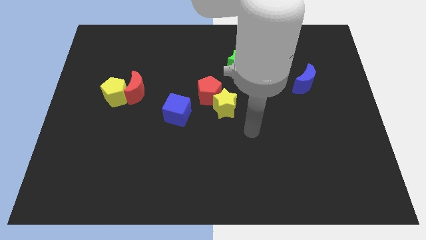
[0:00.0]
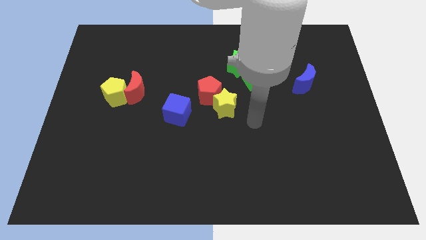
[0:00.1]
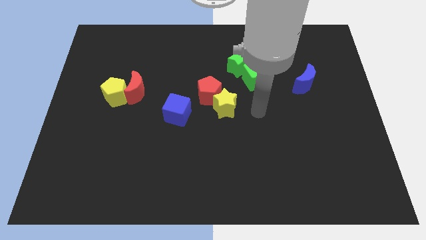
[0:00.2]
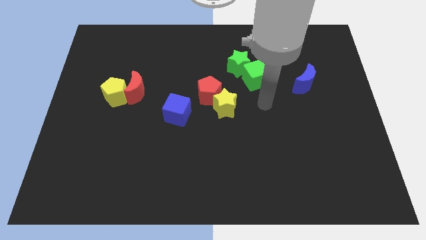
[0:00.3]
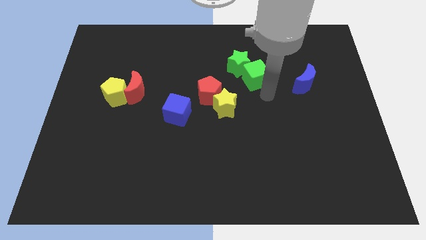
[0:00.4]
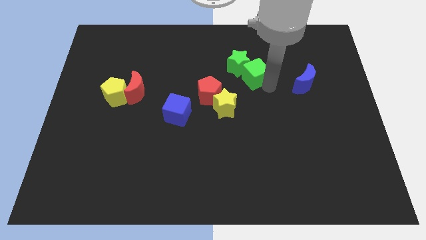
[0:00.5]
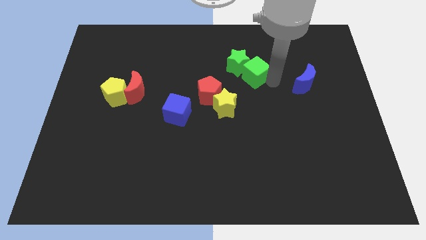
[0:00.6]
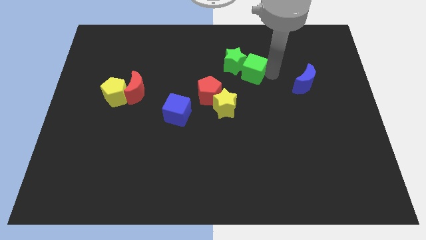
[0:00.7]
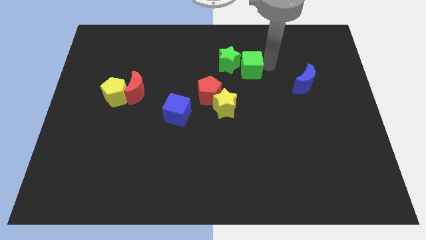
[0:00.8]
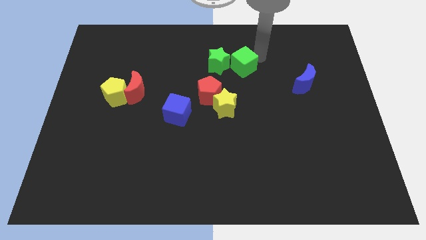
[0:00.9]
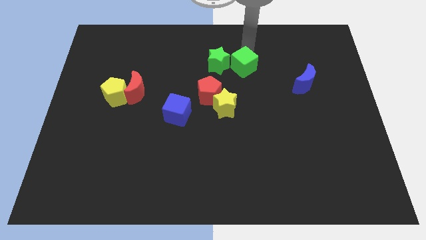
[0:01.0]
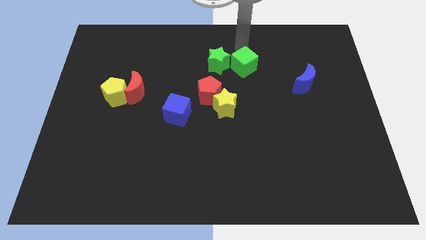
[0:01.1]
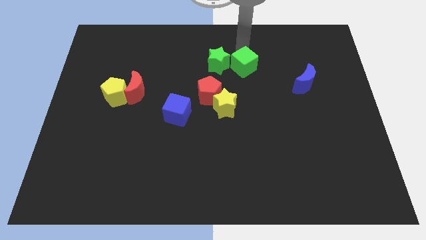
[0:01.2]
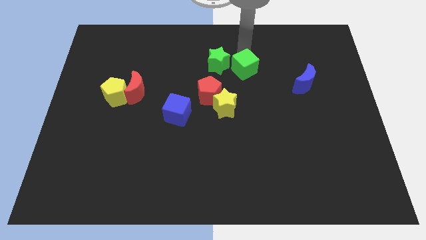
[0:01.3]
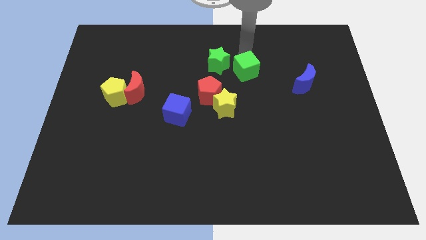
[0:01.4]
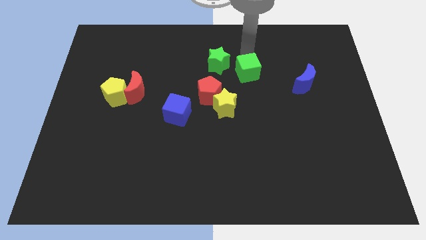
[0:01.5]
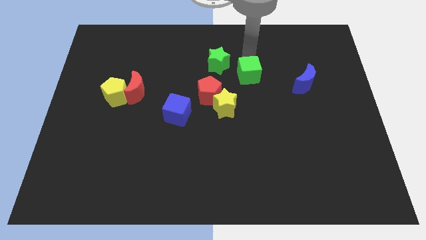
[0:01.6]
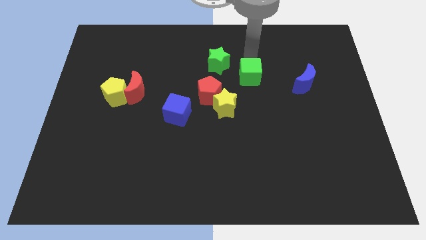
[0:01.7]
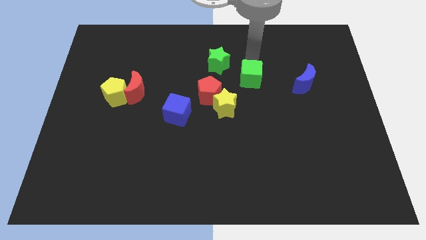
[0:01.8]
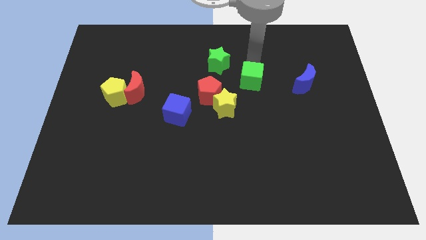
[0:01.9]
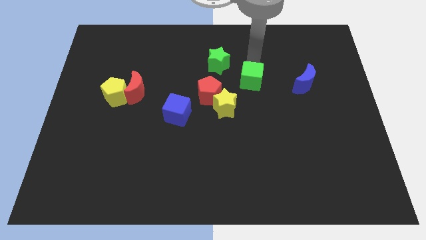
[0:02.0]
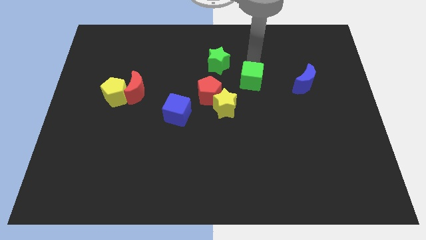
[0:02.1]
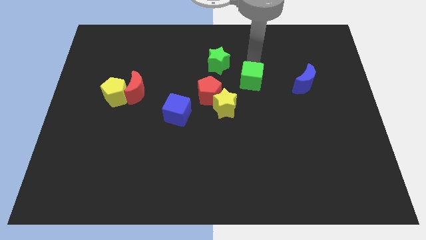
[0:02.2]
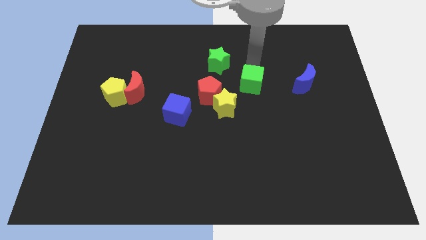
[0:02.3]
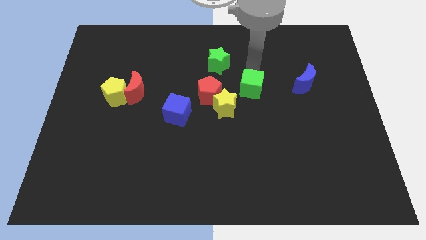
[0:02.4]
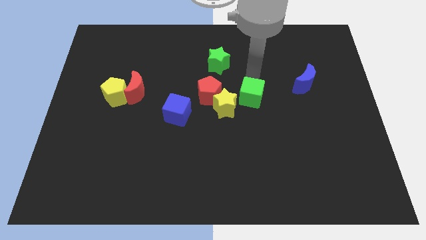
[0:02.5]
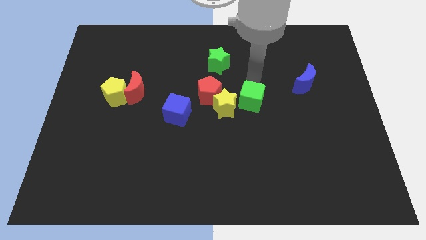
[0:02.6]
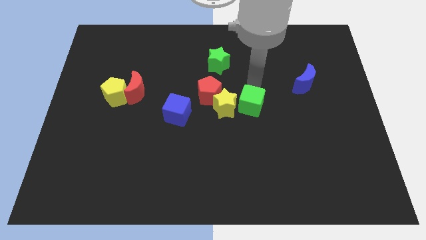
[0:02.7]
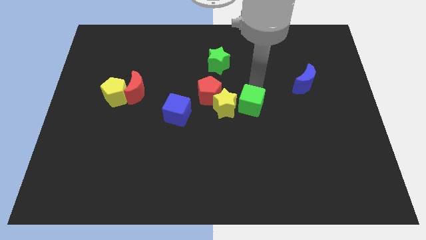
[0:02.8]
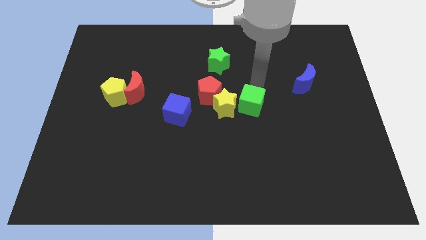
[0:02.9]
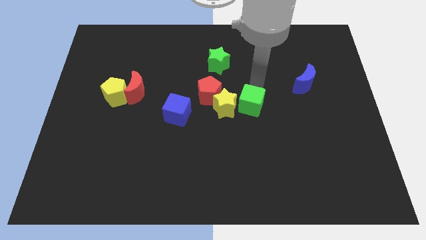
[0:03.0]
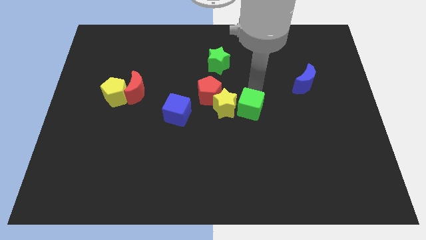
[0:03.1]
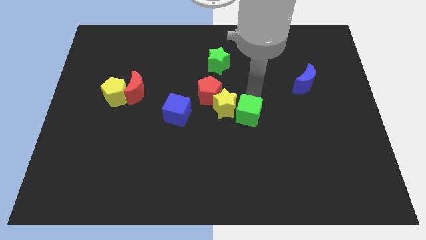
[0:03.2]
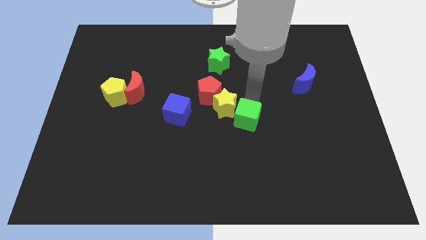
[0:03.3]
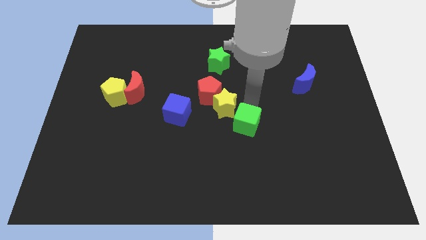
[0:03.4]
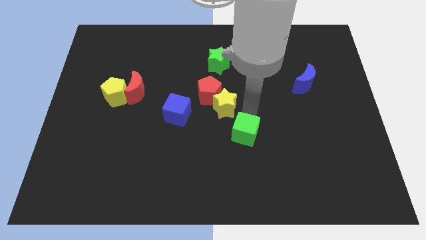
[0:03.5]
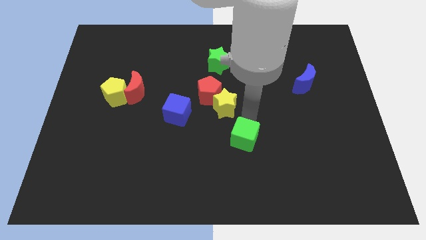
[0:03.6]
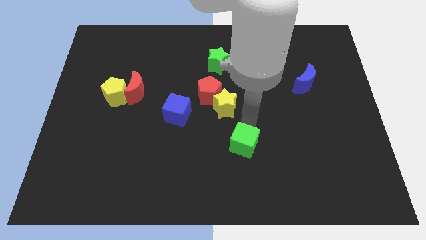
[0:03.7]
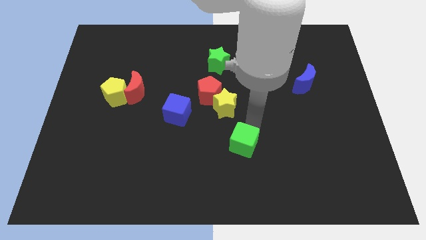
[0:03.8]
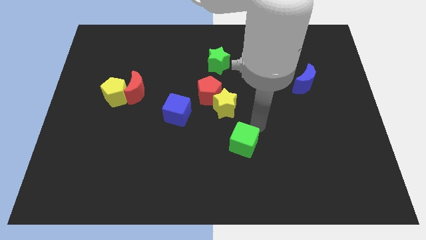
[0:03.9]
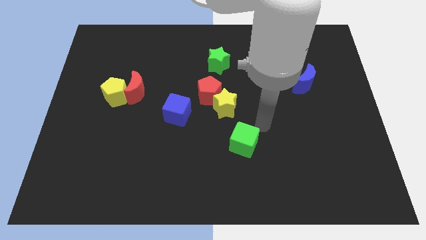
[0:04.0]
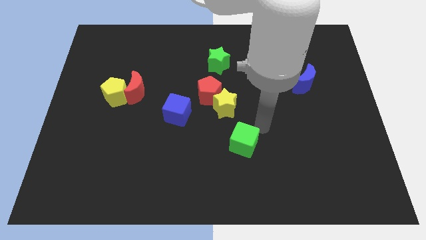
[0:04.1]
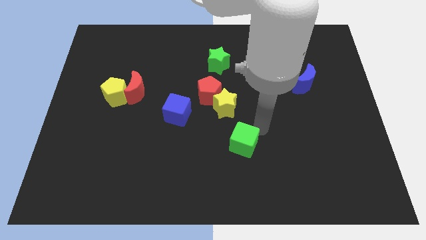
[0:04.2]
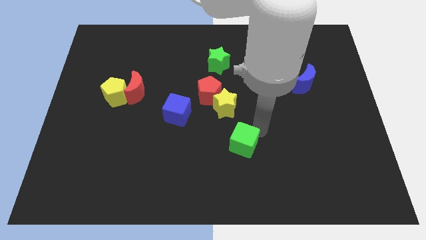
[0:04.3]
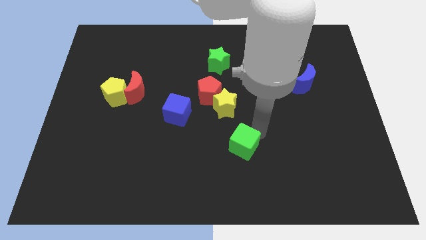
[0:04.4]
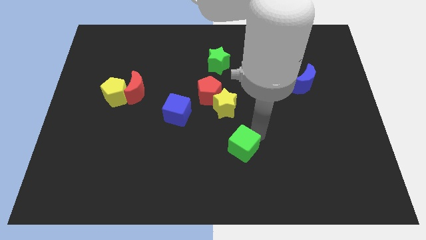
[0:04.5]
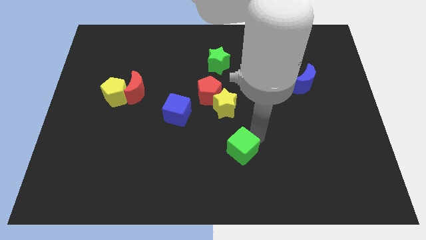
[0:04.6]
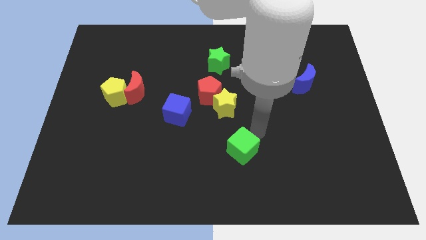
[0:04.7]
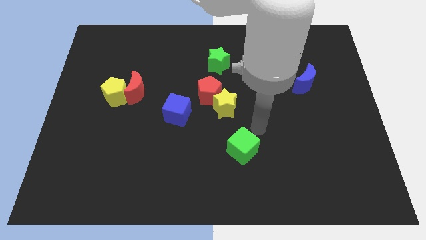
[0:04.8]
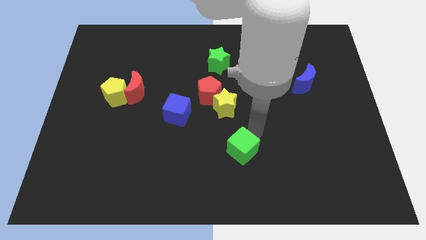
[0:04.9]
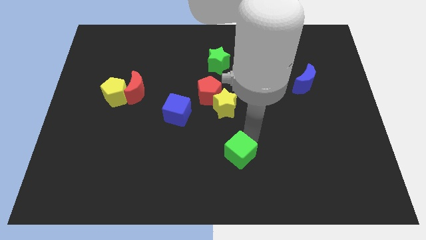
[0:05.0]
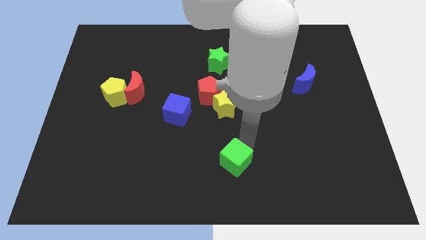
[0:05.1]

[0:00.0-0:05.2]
slide the green cube to the bottom

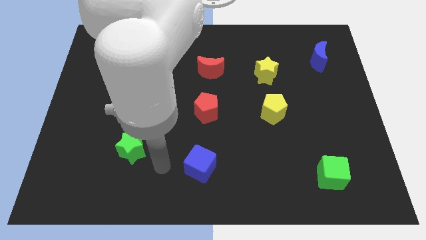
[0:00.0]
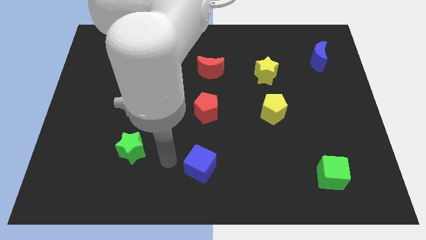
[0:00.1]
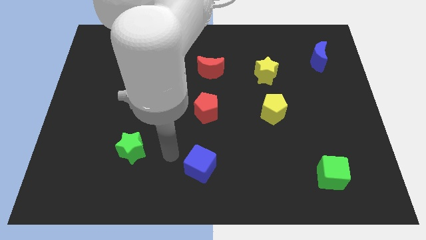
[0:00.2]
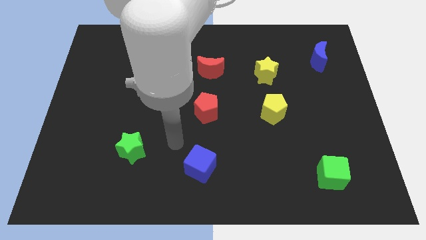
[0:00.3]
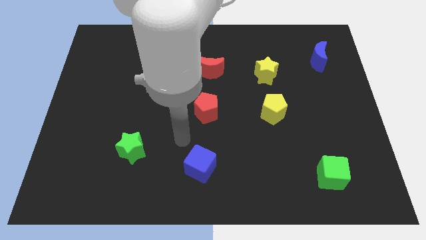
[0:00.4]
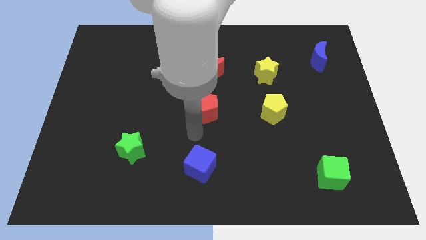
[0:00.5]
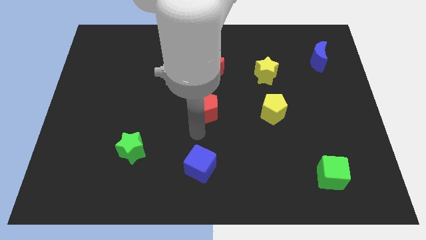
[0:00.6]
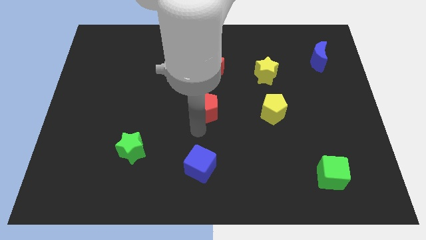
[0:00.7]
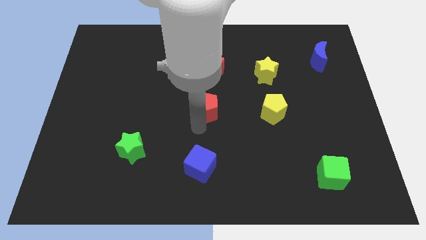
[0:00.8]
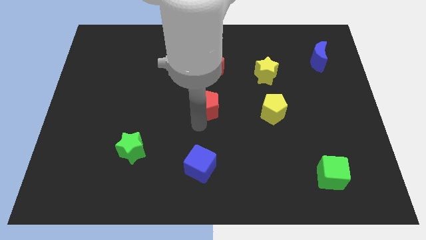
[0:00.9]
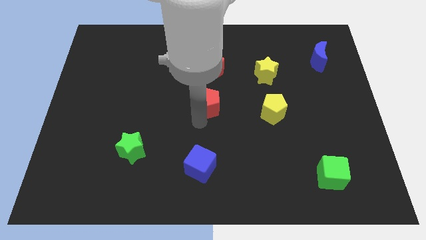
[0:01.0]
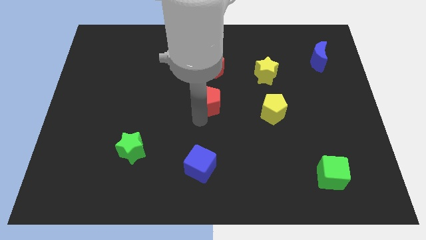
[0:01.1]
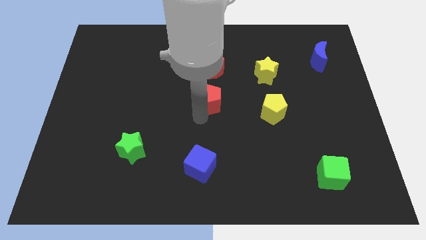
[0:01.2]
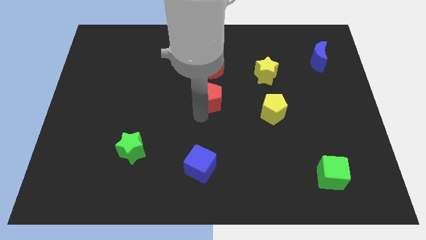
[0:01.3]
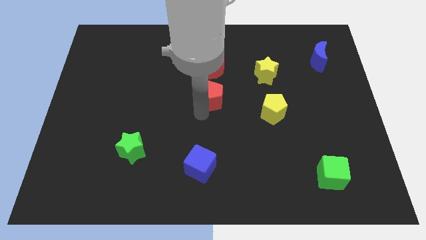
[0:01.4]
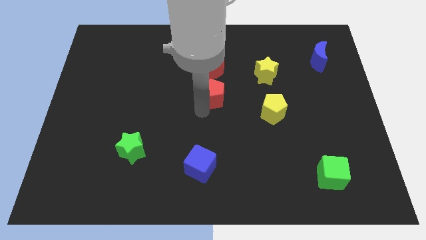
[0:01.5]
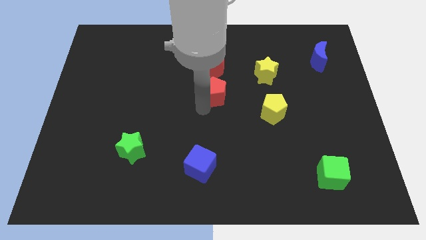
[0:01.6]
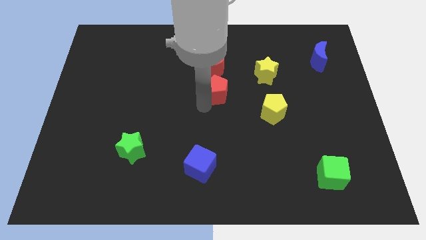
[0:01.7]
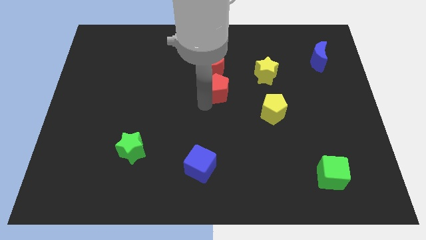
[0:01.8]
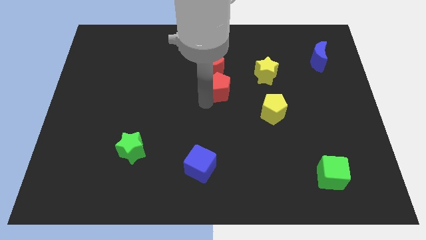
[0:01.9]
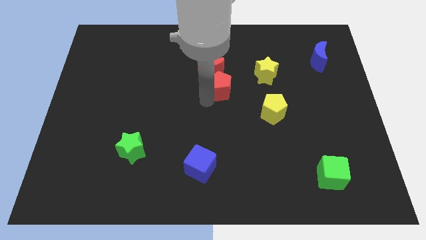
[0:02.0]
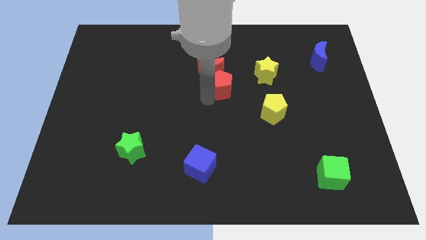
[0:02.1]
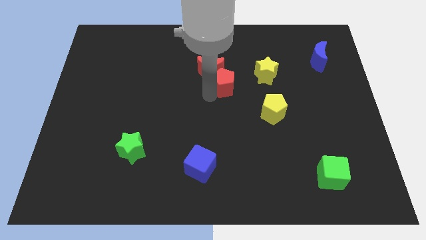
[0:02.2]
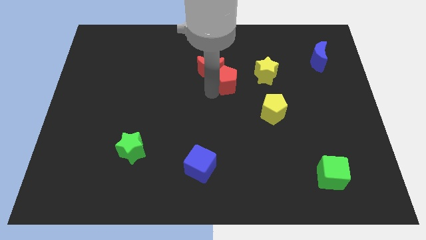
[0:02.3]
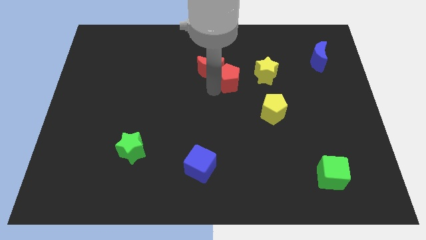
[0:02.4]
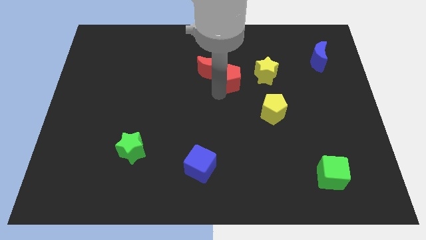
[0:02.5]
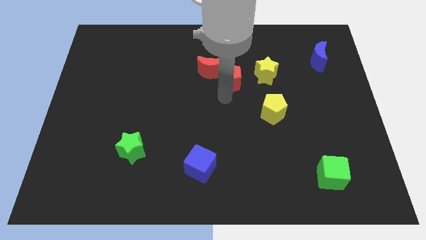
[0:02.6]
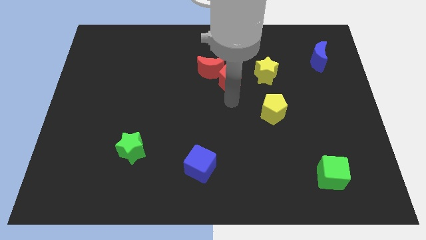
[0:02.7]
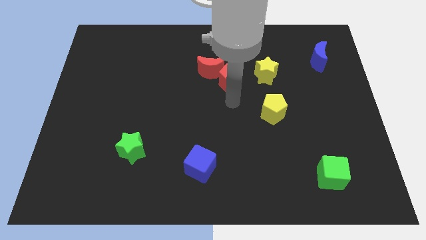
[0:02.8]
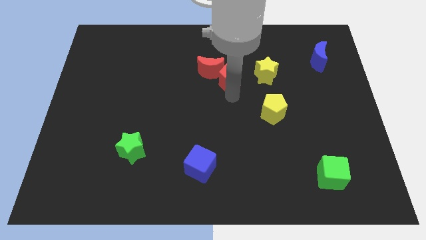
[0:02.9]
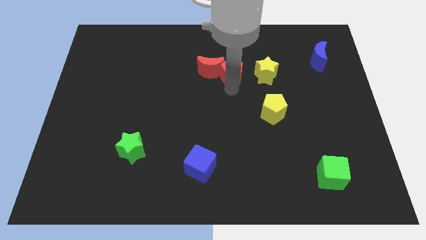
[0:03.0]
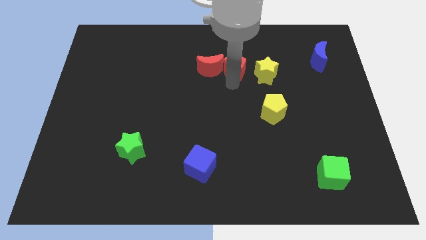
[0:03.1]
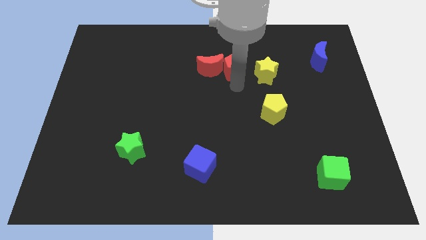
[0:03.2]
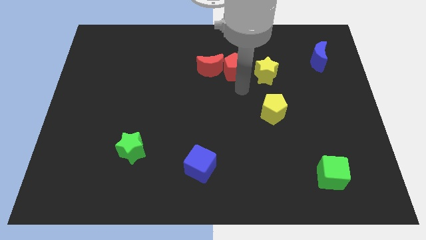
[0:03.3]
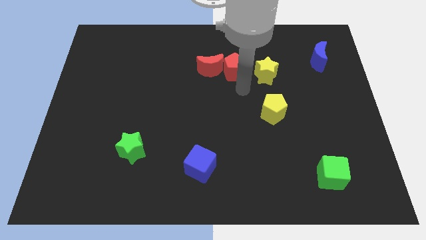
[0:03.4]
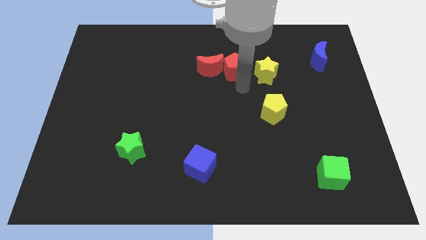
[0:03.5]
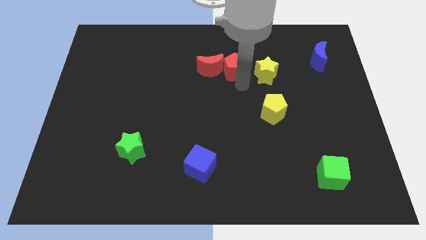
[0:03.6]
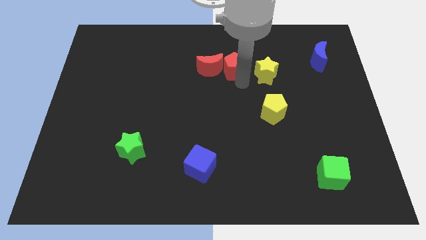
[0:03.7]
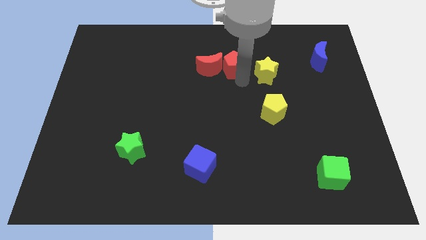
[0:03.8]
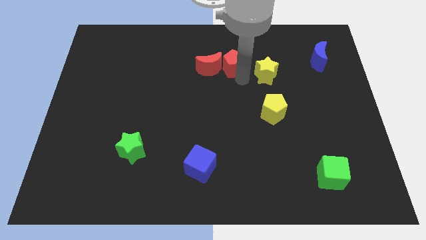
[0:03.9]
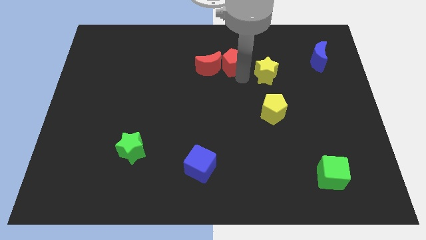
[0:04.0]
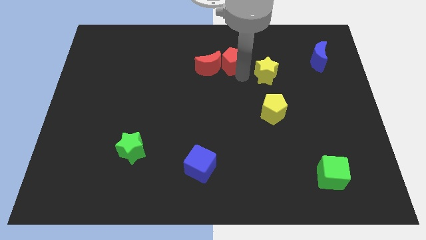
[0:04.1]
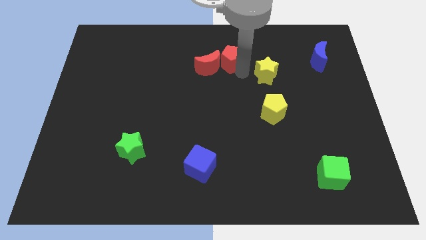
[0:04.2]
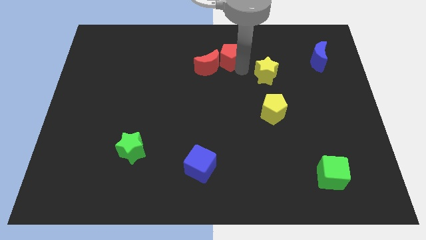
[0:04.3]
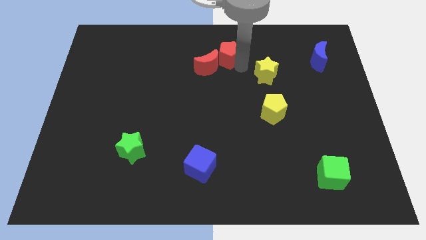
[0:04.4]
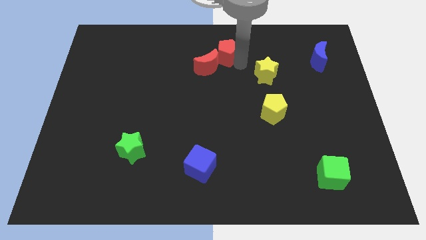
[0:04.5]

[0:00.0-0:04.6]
slide the red pentagon to the top
